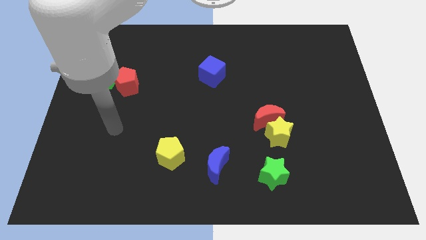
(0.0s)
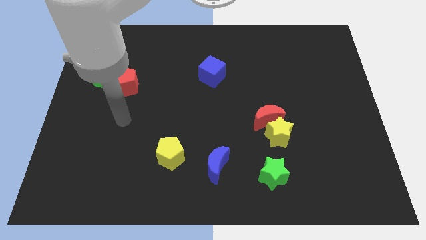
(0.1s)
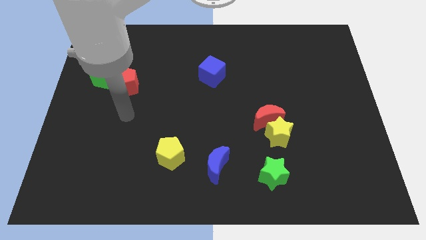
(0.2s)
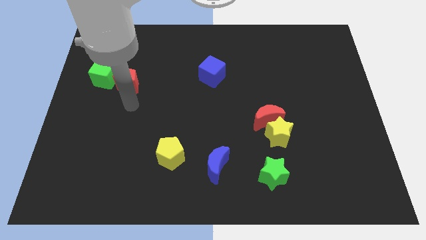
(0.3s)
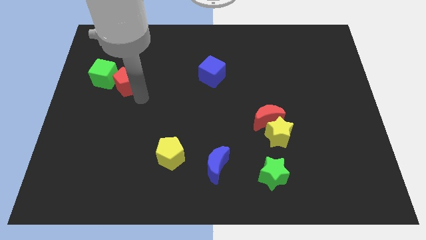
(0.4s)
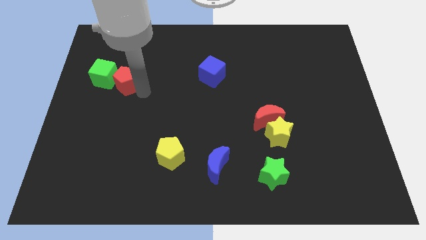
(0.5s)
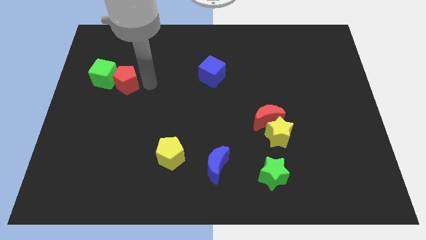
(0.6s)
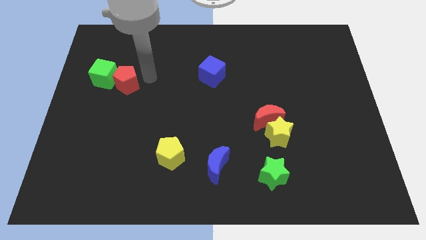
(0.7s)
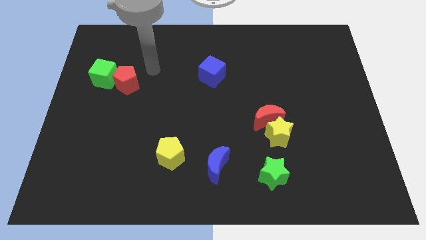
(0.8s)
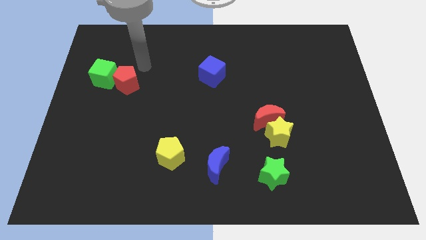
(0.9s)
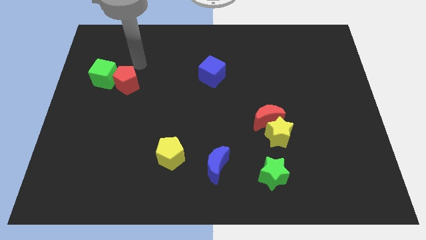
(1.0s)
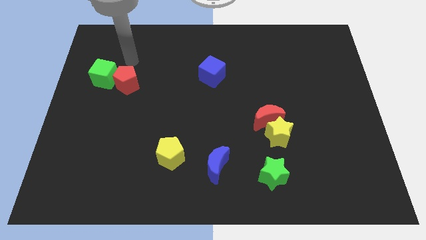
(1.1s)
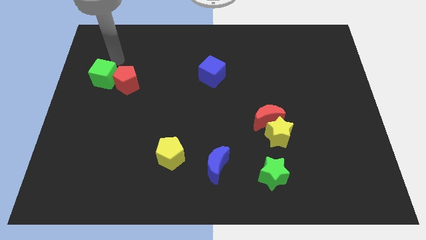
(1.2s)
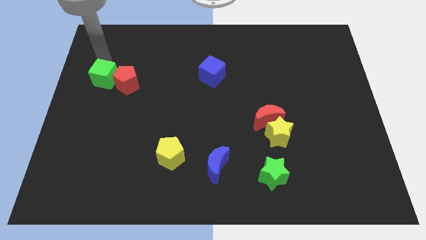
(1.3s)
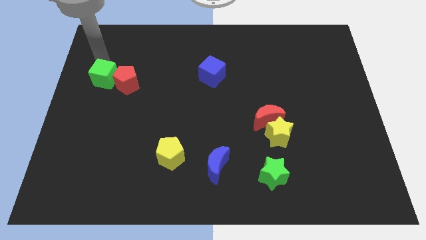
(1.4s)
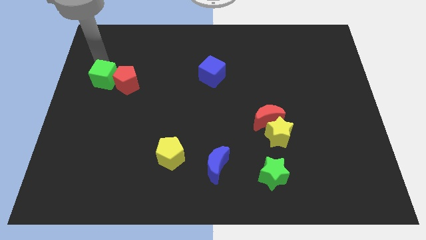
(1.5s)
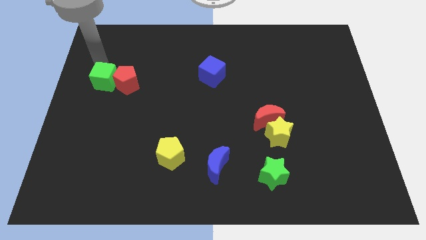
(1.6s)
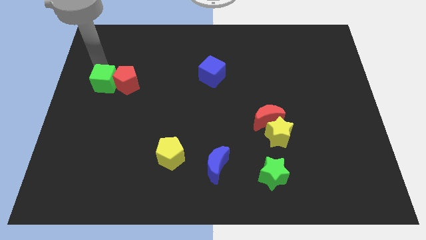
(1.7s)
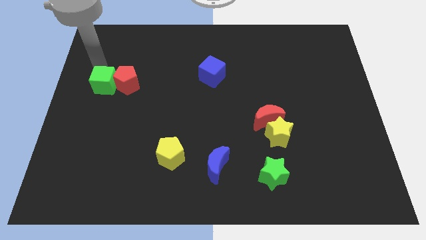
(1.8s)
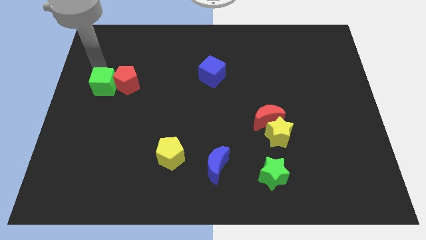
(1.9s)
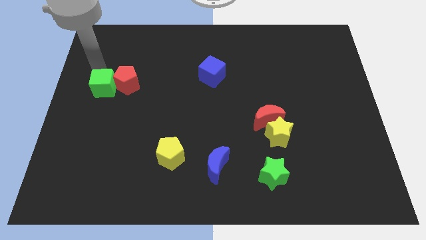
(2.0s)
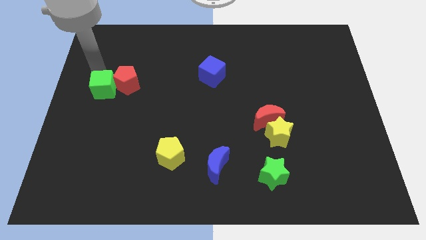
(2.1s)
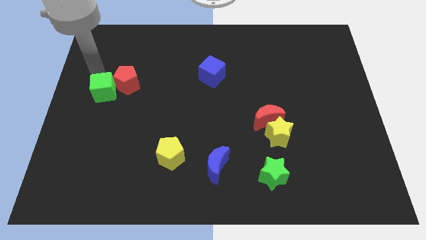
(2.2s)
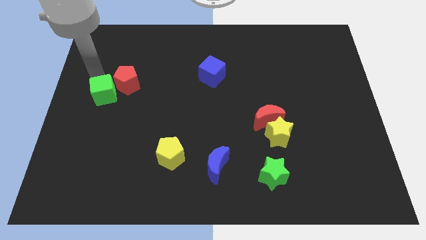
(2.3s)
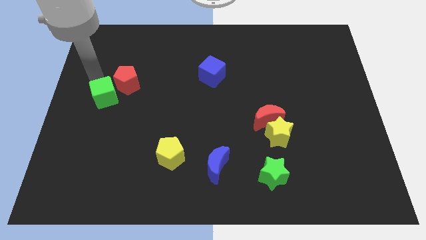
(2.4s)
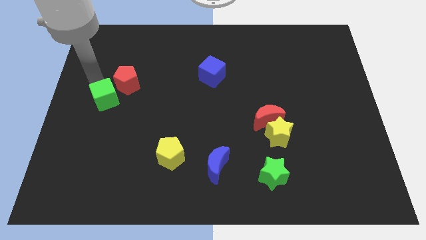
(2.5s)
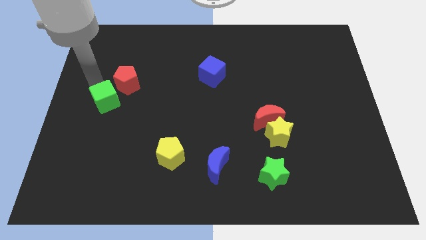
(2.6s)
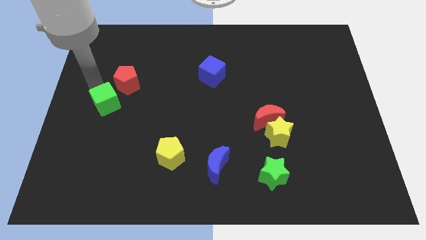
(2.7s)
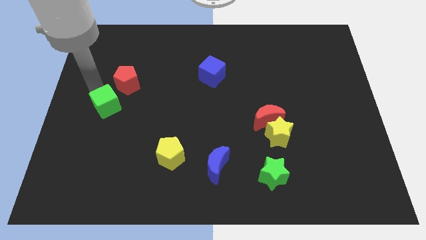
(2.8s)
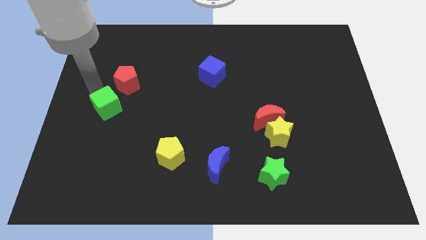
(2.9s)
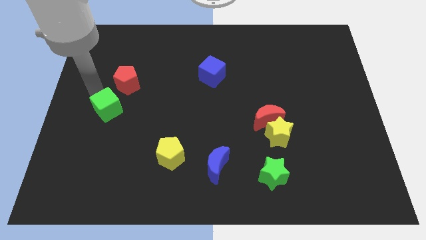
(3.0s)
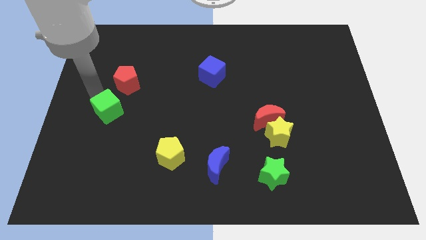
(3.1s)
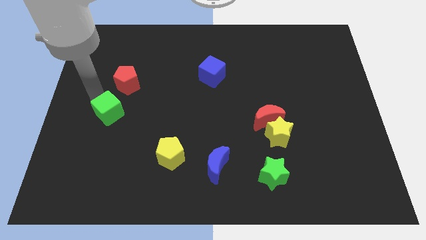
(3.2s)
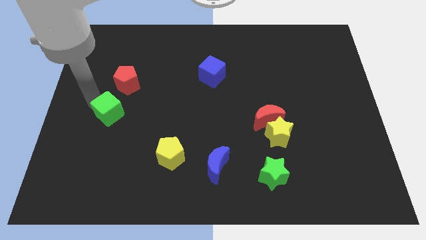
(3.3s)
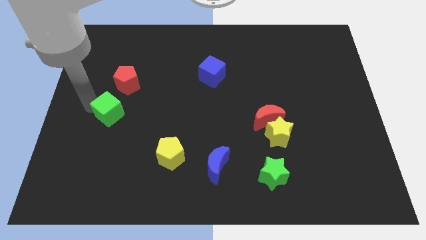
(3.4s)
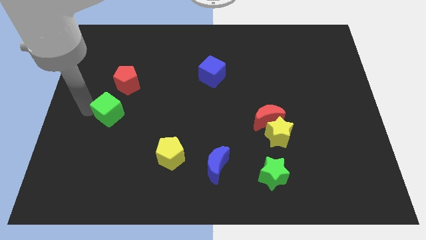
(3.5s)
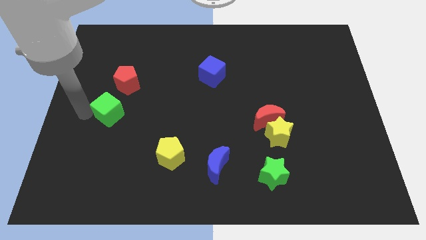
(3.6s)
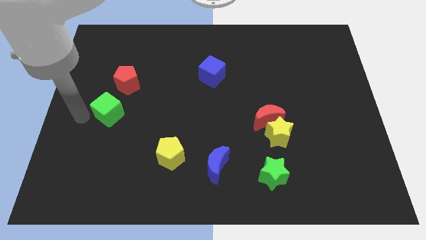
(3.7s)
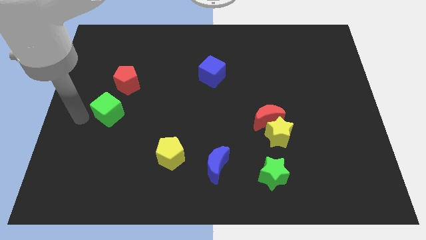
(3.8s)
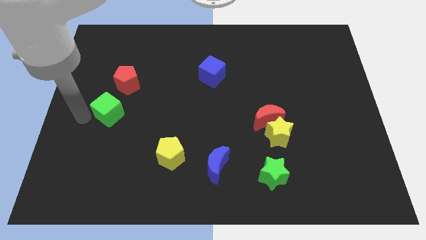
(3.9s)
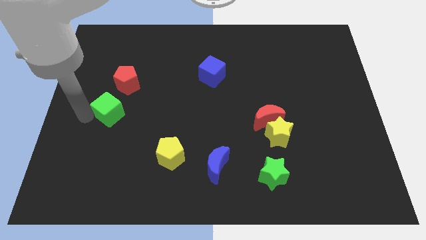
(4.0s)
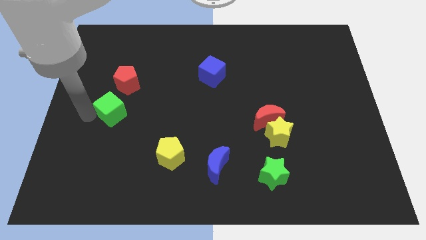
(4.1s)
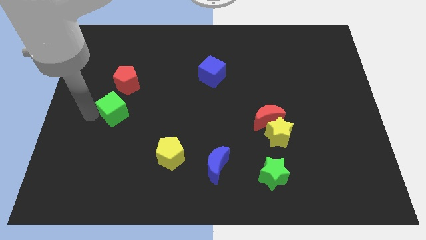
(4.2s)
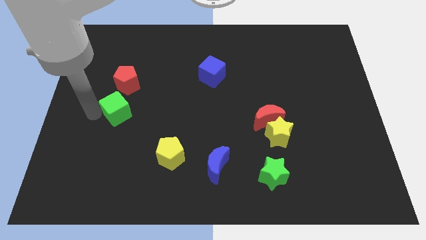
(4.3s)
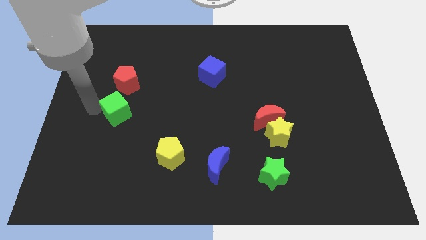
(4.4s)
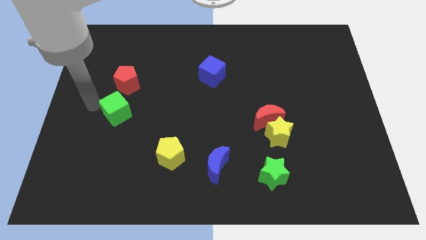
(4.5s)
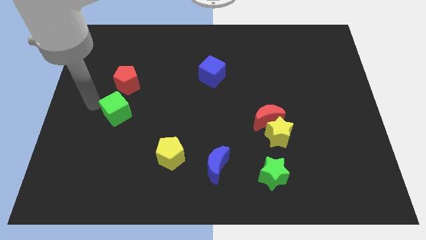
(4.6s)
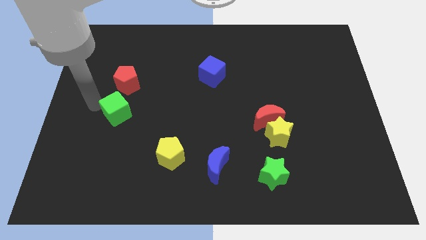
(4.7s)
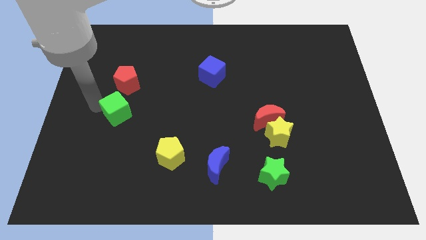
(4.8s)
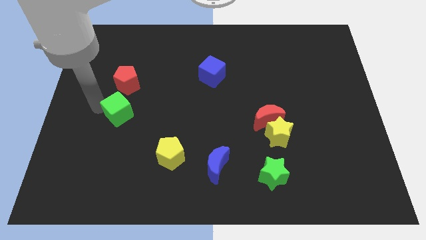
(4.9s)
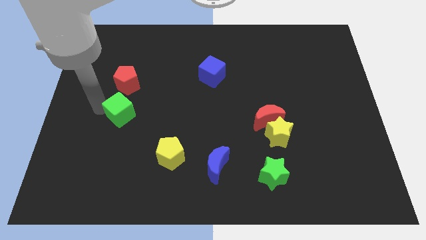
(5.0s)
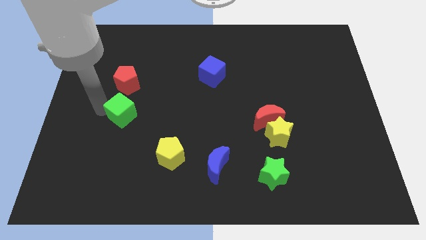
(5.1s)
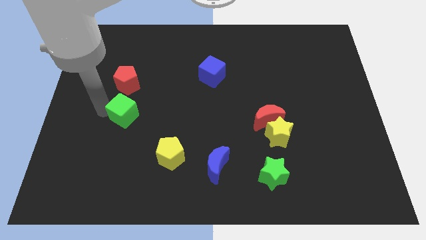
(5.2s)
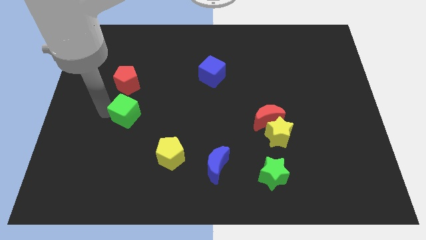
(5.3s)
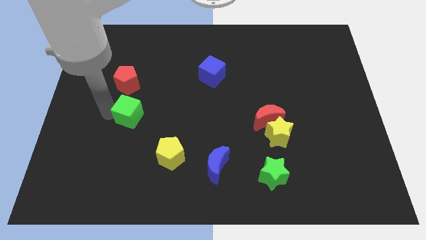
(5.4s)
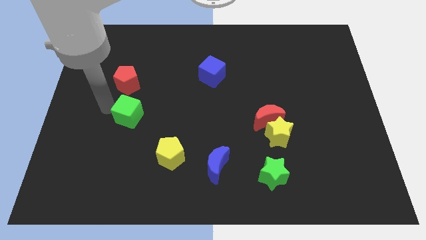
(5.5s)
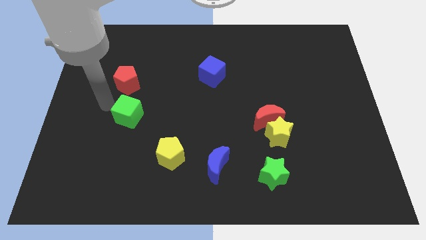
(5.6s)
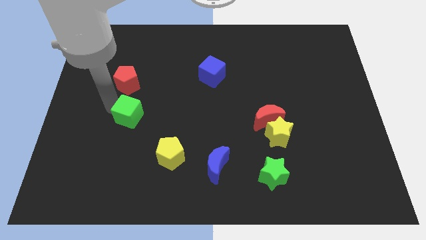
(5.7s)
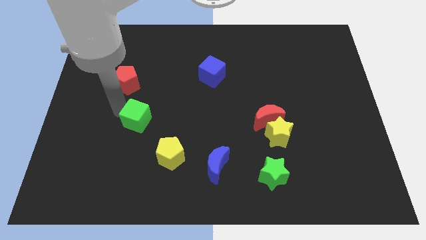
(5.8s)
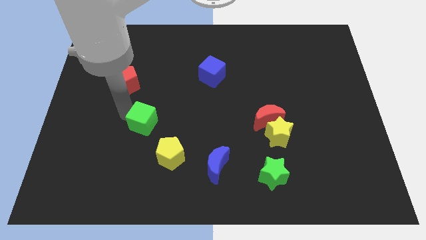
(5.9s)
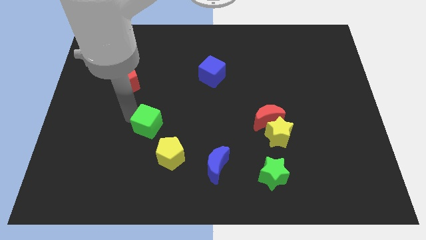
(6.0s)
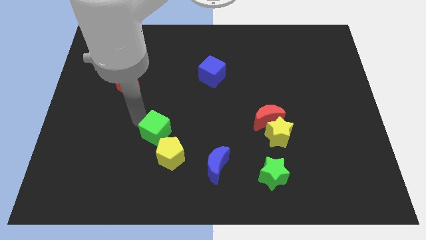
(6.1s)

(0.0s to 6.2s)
slide the green cube down and right diagonally

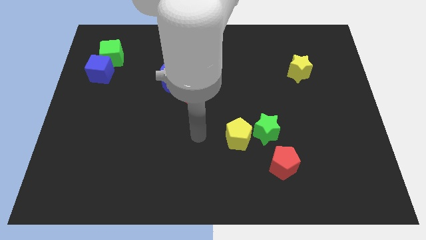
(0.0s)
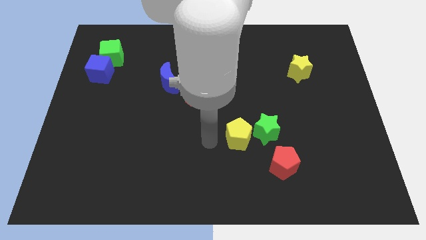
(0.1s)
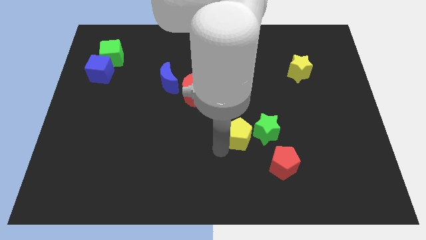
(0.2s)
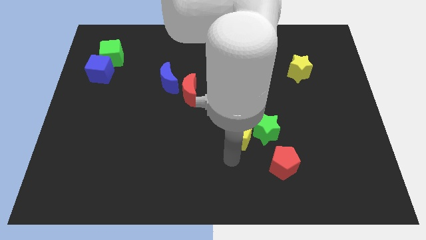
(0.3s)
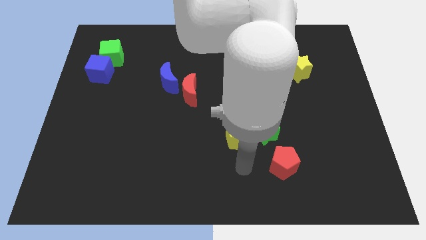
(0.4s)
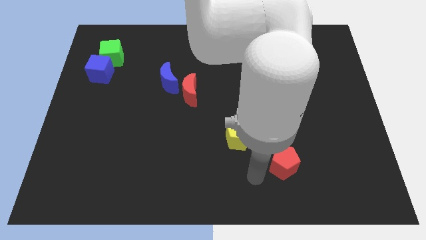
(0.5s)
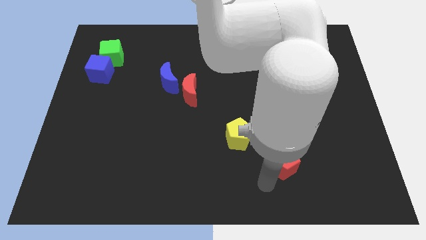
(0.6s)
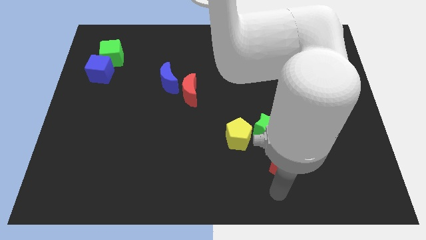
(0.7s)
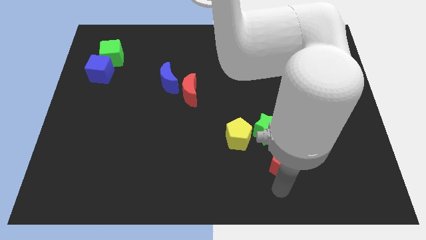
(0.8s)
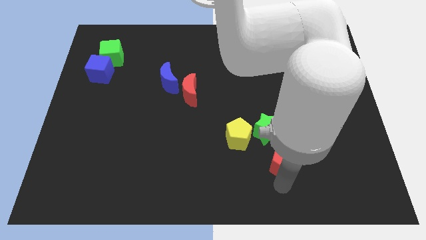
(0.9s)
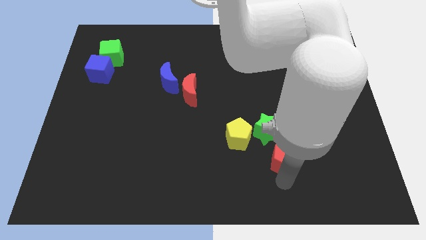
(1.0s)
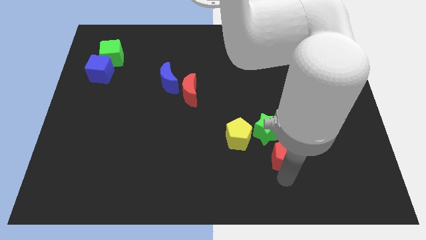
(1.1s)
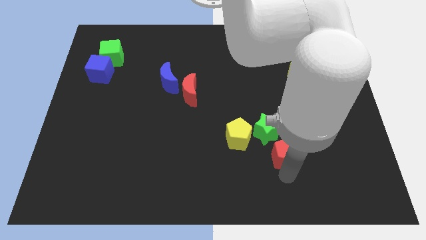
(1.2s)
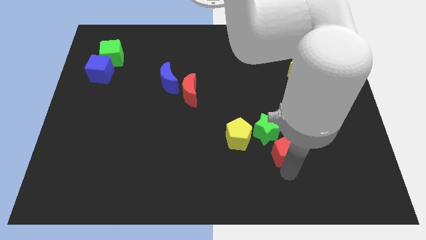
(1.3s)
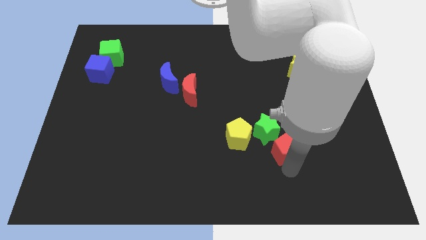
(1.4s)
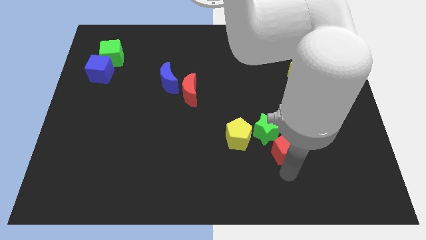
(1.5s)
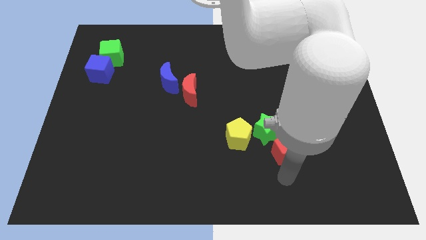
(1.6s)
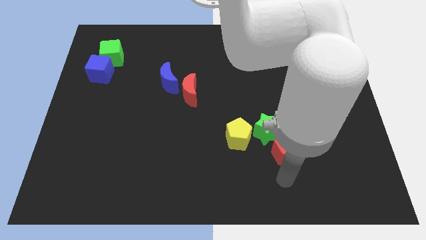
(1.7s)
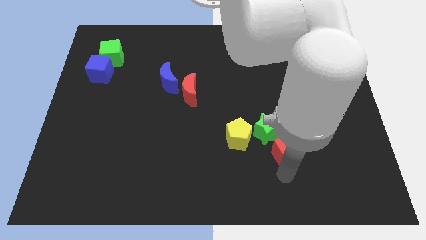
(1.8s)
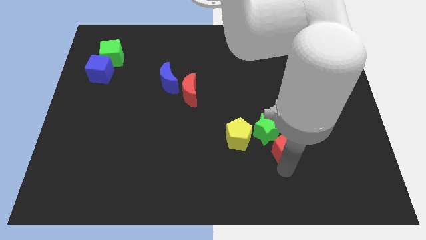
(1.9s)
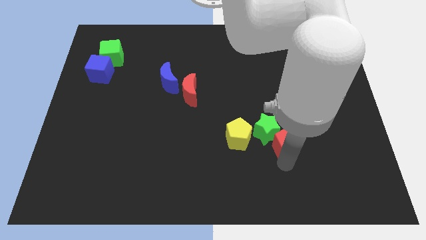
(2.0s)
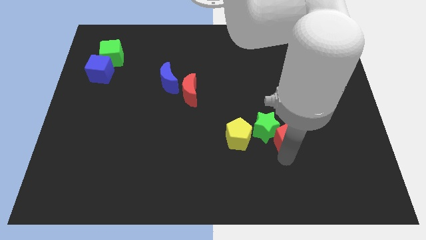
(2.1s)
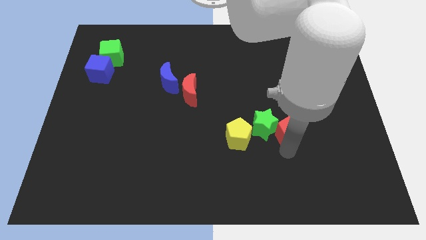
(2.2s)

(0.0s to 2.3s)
push the red pentagon a little bit upwards
